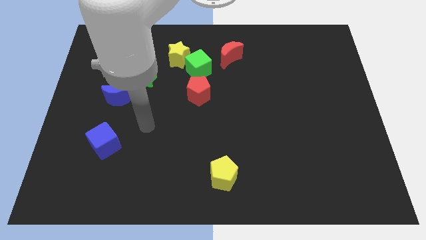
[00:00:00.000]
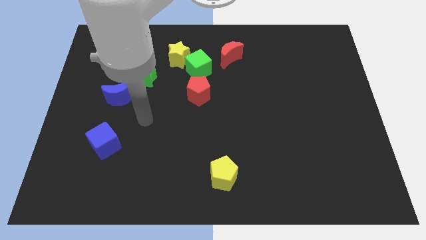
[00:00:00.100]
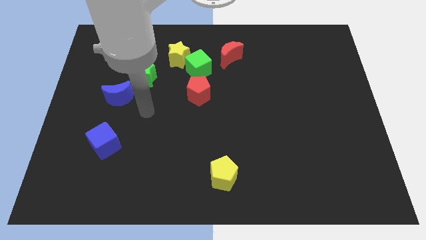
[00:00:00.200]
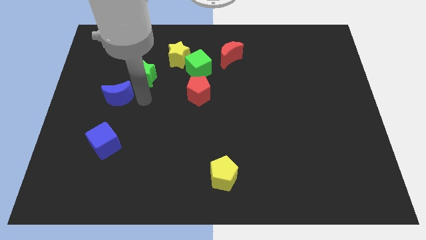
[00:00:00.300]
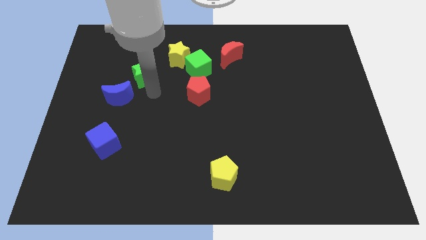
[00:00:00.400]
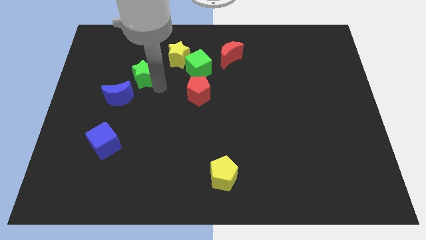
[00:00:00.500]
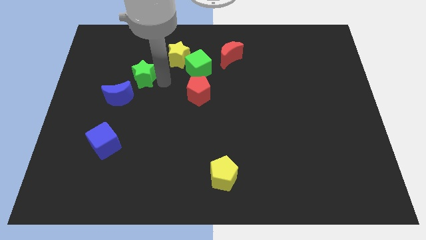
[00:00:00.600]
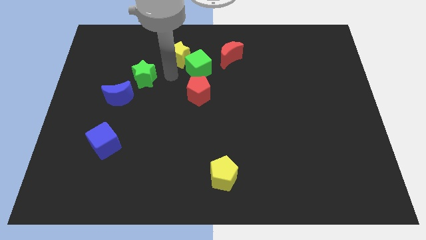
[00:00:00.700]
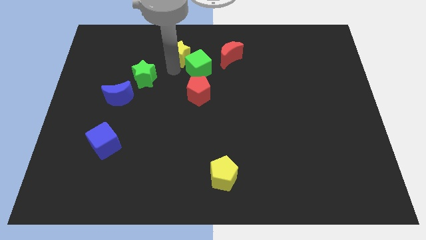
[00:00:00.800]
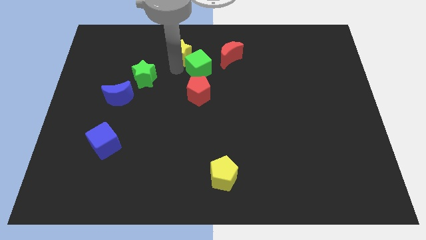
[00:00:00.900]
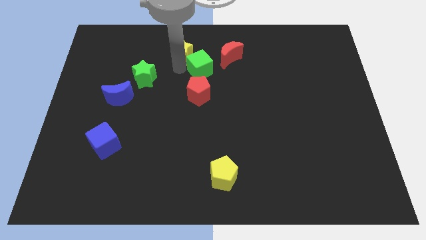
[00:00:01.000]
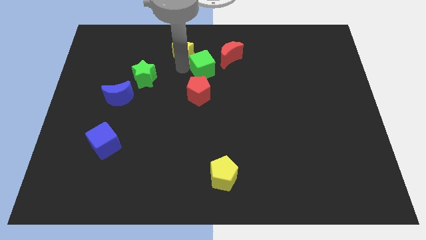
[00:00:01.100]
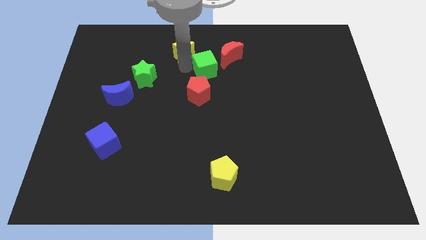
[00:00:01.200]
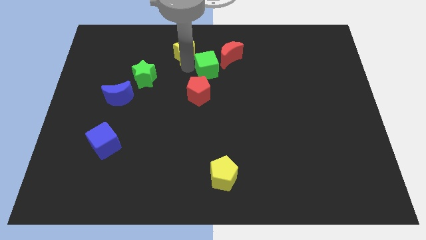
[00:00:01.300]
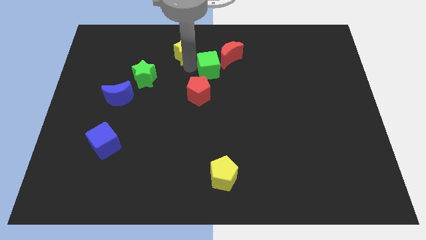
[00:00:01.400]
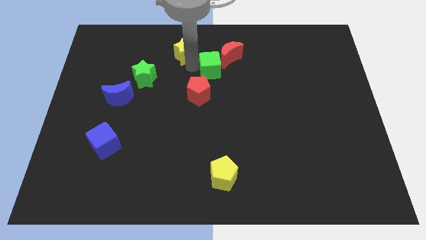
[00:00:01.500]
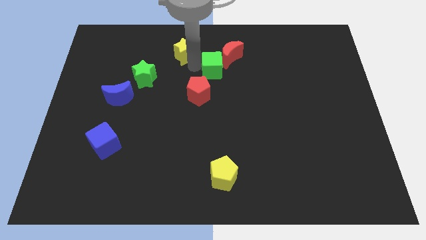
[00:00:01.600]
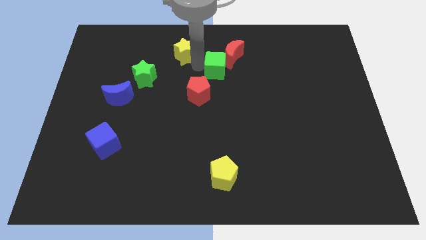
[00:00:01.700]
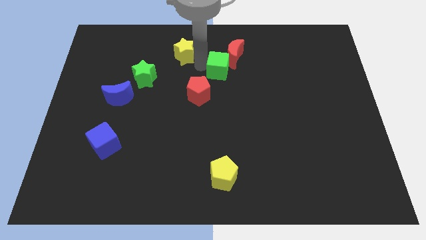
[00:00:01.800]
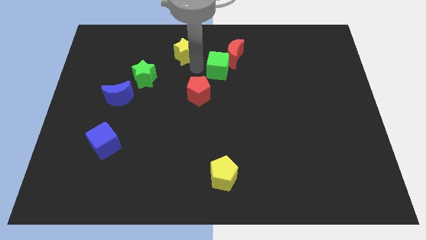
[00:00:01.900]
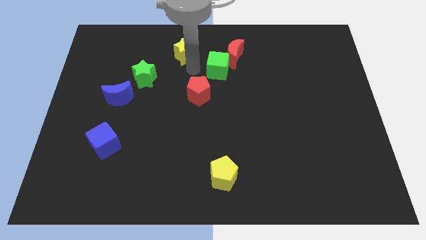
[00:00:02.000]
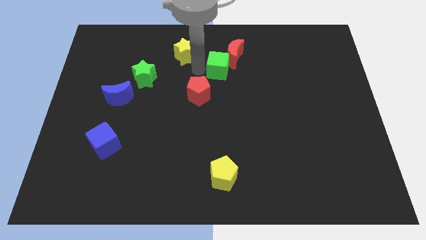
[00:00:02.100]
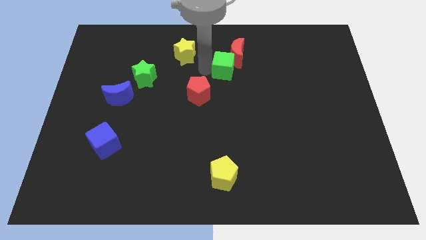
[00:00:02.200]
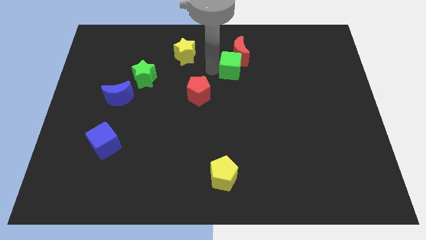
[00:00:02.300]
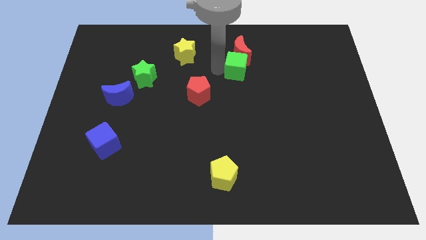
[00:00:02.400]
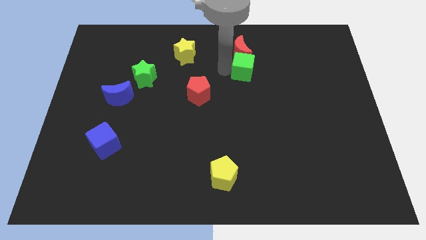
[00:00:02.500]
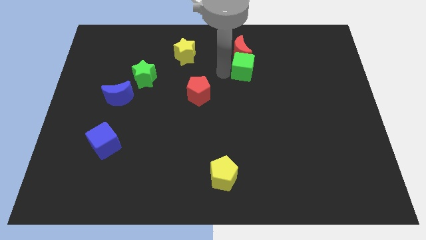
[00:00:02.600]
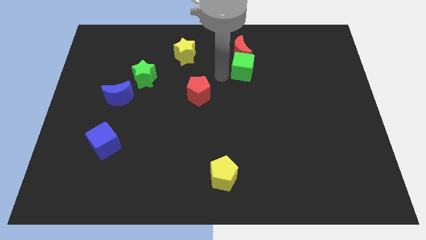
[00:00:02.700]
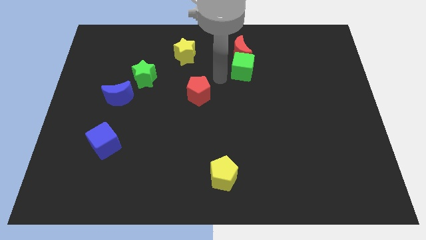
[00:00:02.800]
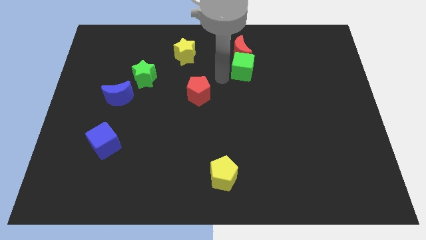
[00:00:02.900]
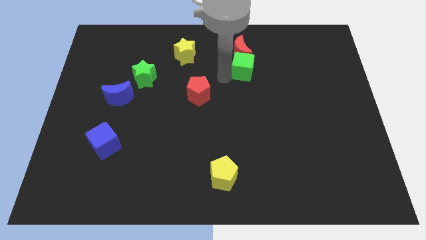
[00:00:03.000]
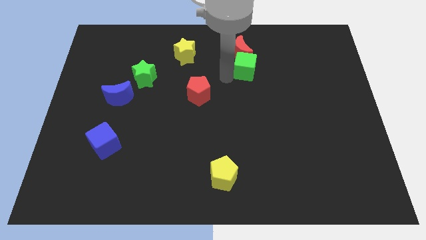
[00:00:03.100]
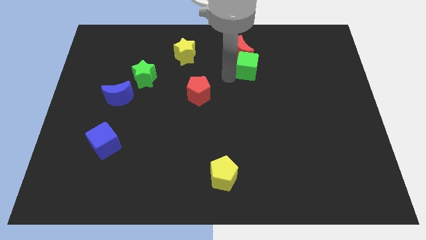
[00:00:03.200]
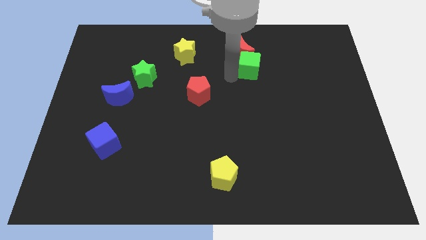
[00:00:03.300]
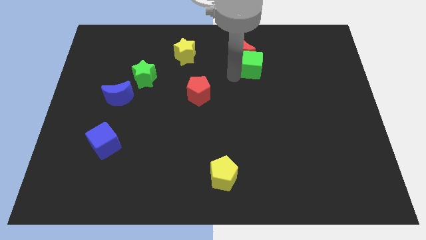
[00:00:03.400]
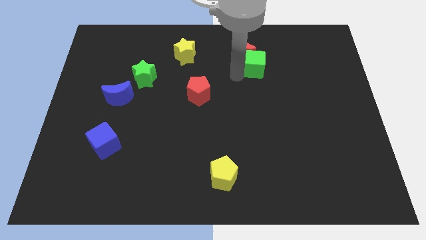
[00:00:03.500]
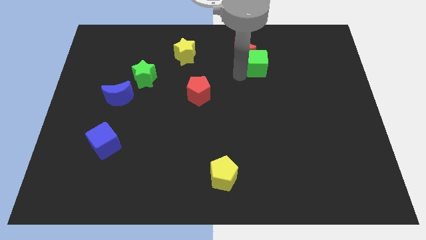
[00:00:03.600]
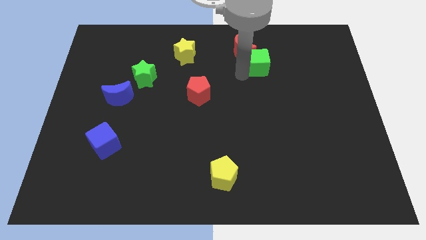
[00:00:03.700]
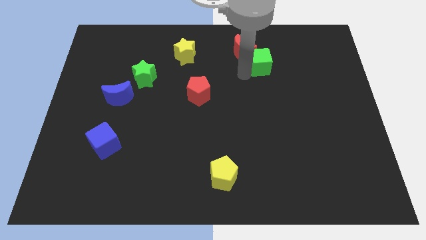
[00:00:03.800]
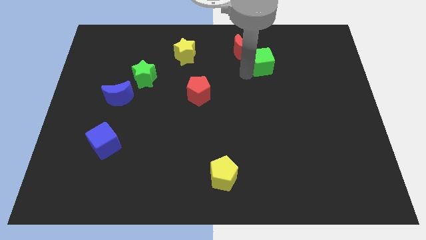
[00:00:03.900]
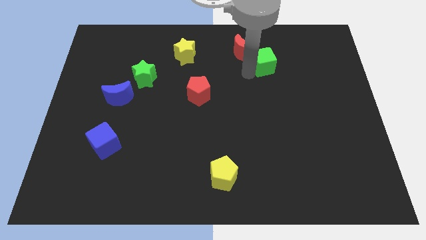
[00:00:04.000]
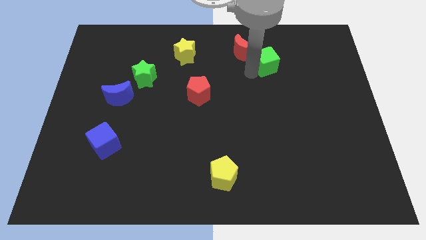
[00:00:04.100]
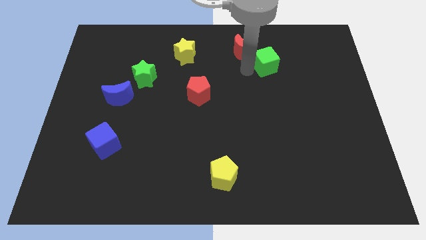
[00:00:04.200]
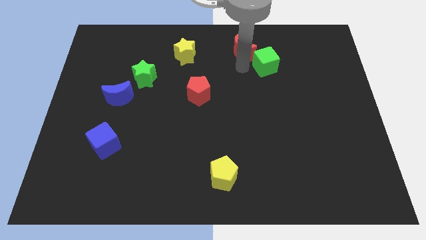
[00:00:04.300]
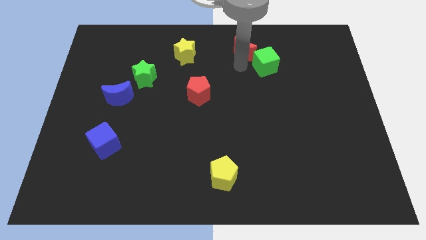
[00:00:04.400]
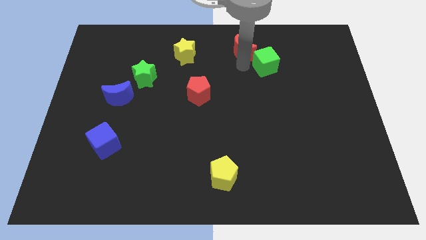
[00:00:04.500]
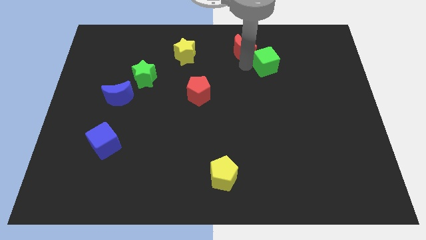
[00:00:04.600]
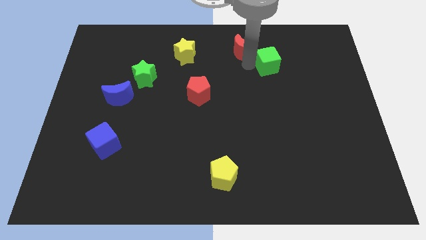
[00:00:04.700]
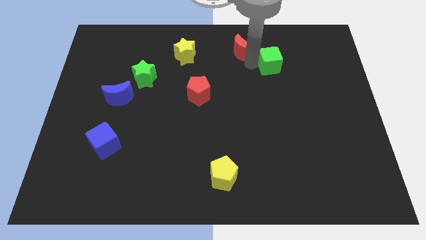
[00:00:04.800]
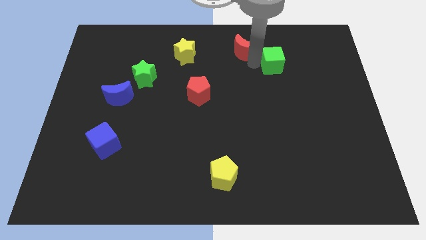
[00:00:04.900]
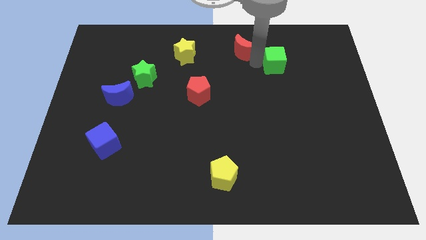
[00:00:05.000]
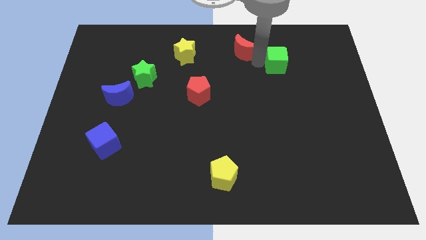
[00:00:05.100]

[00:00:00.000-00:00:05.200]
move the green cube right

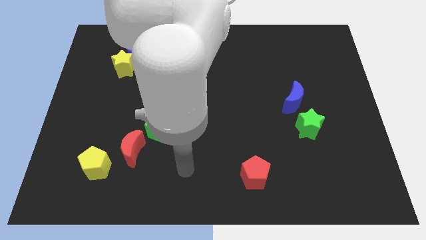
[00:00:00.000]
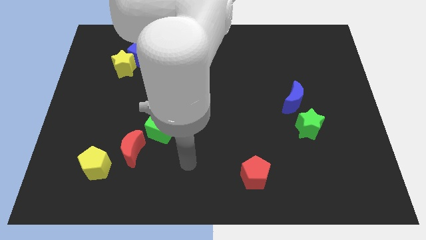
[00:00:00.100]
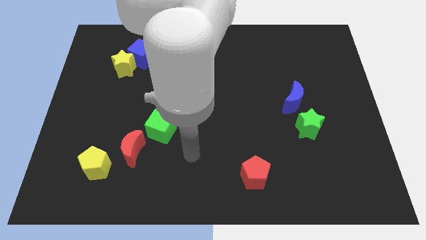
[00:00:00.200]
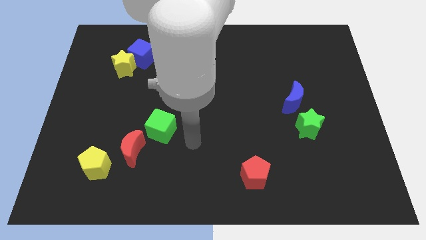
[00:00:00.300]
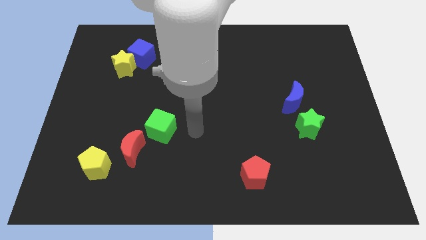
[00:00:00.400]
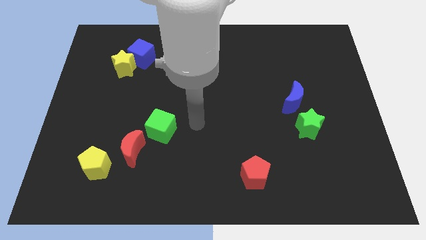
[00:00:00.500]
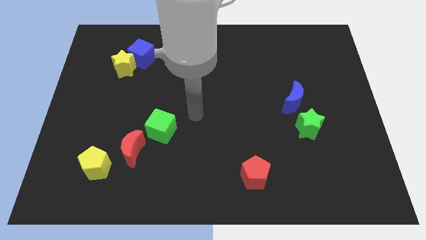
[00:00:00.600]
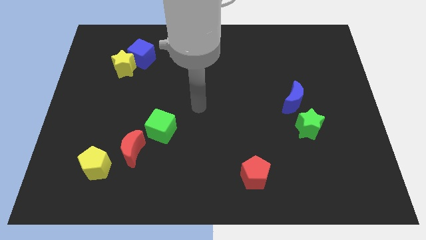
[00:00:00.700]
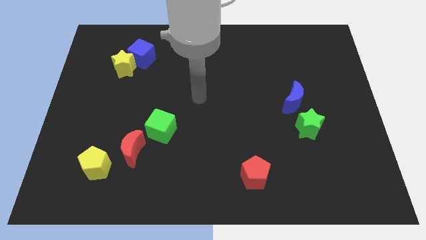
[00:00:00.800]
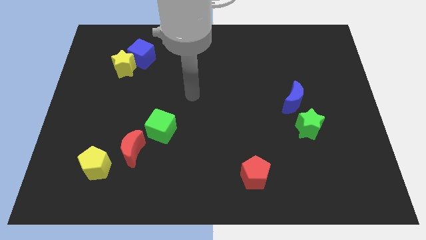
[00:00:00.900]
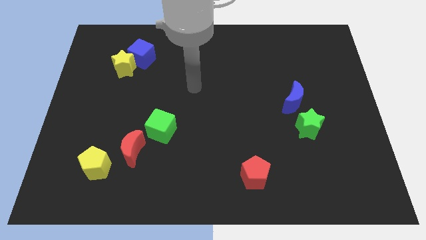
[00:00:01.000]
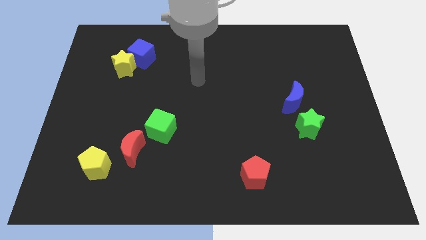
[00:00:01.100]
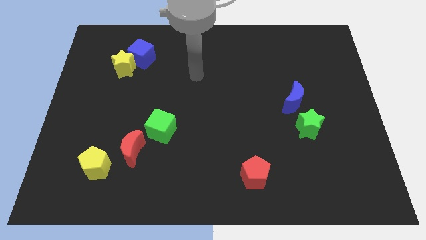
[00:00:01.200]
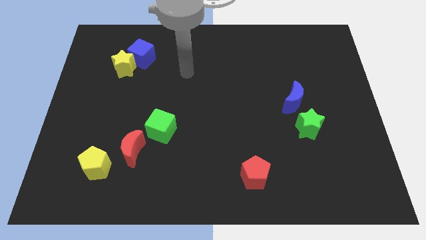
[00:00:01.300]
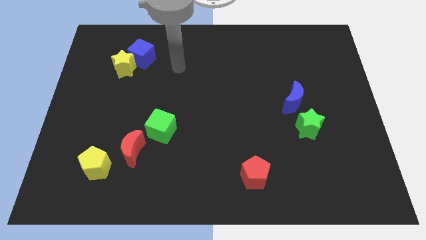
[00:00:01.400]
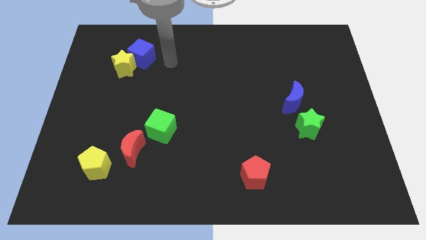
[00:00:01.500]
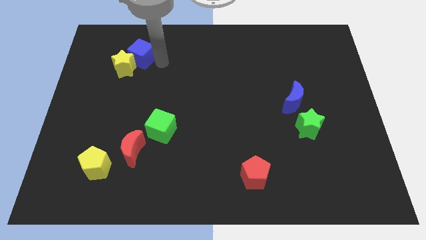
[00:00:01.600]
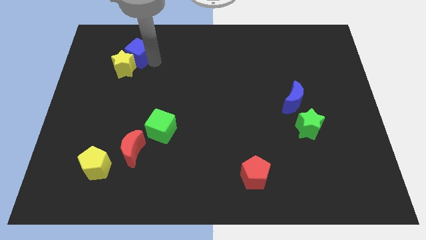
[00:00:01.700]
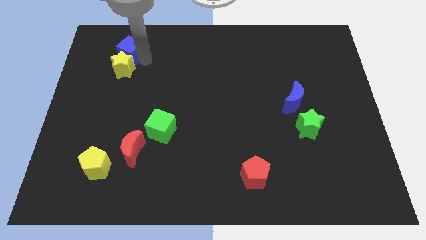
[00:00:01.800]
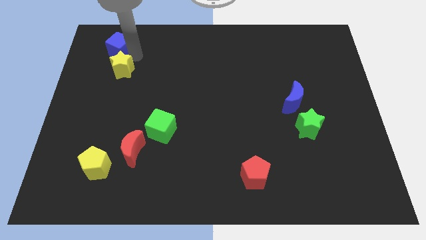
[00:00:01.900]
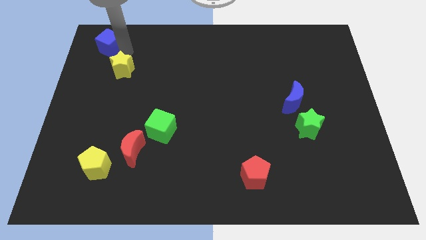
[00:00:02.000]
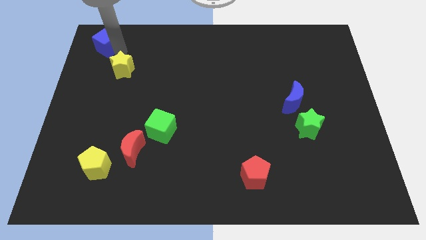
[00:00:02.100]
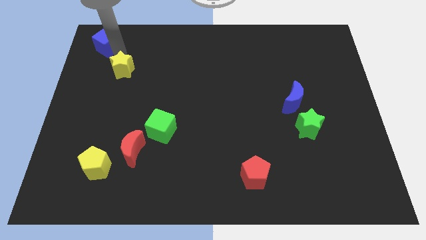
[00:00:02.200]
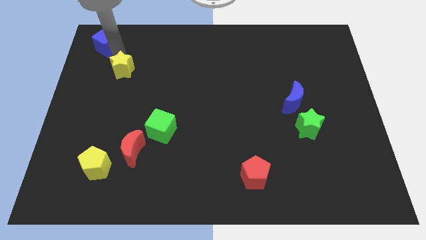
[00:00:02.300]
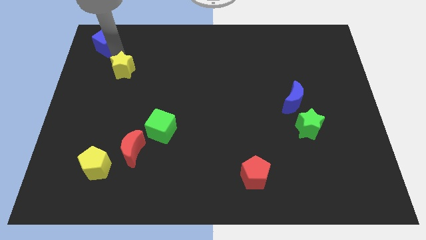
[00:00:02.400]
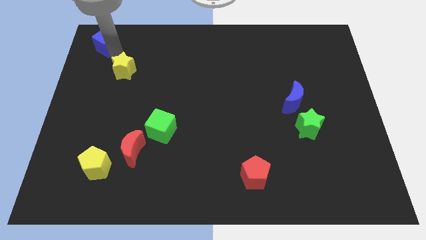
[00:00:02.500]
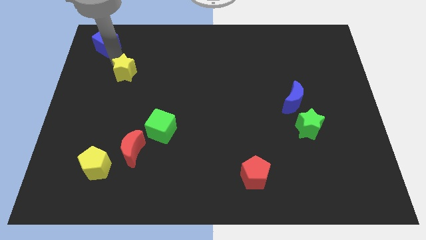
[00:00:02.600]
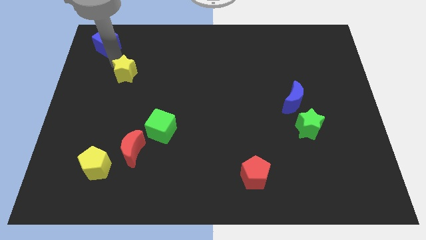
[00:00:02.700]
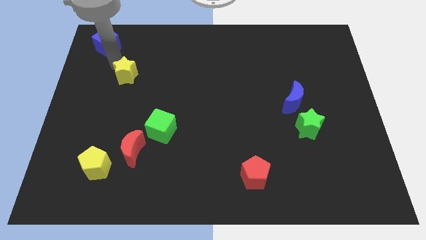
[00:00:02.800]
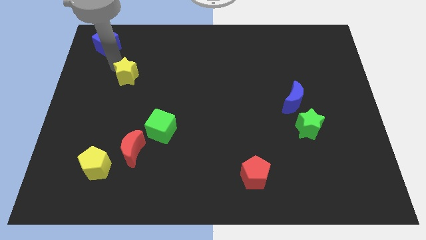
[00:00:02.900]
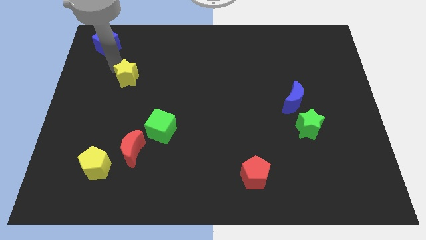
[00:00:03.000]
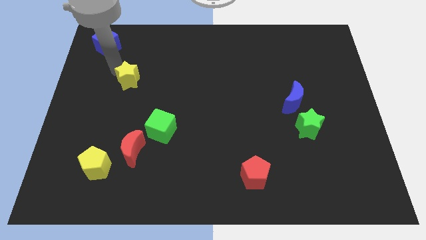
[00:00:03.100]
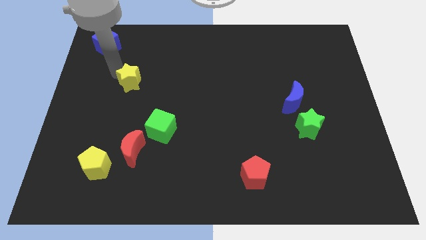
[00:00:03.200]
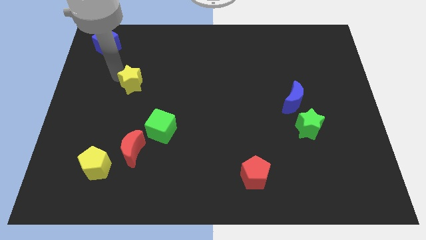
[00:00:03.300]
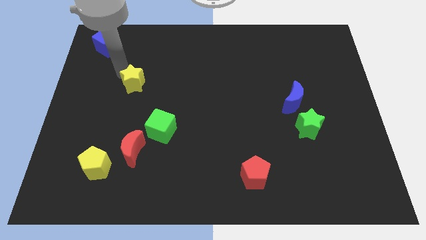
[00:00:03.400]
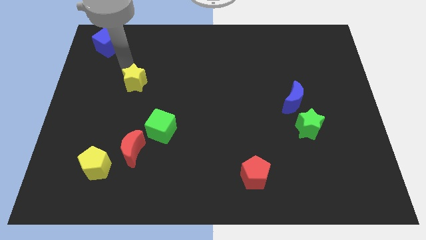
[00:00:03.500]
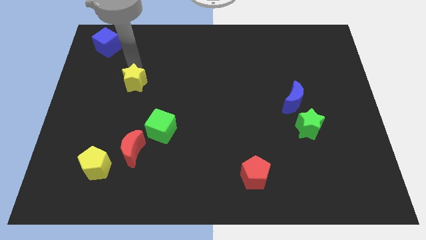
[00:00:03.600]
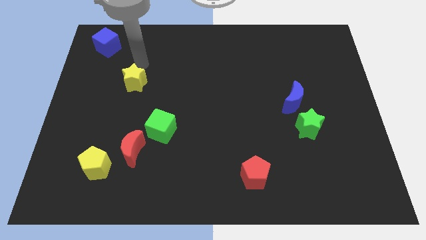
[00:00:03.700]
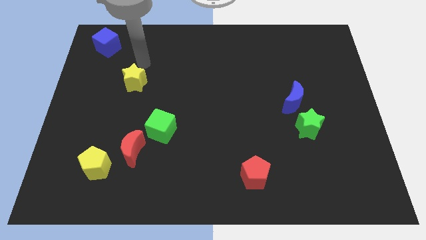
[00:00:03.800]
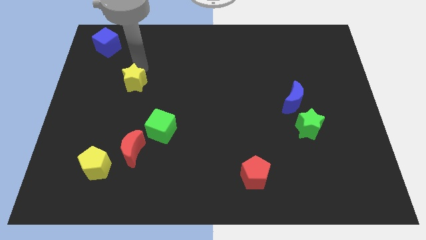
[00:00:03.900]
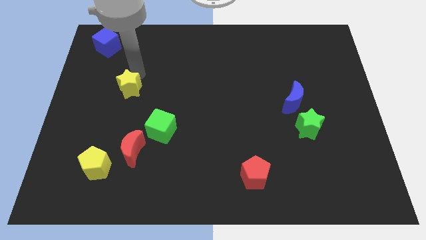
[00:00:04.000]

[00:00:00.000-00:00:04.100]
slightly slide the yellow star downwards
